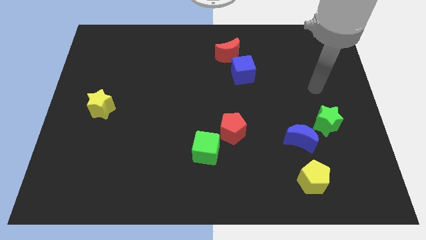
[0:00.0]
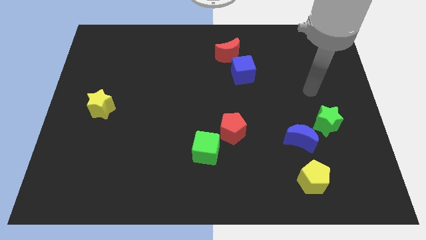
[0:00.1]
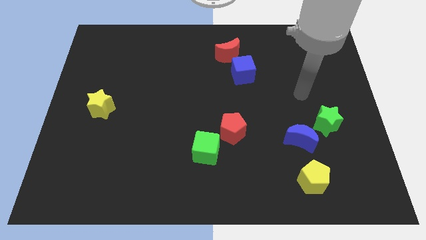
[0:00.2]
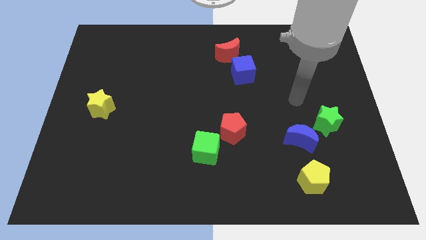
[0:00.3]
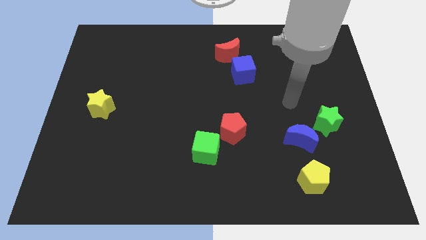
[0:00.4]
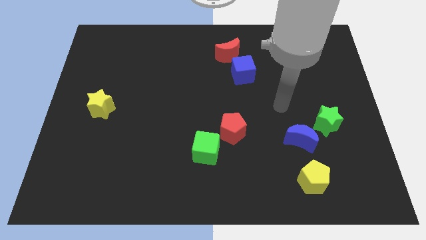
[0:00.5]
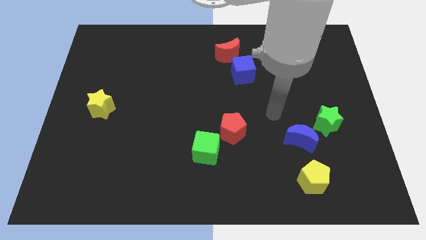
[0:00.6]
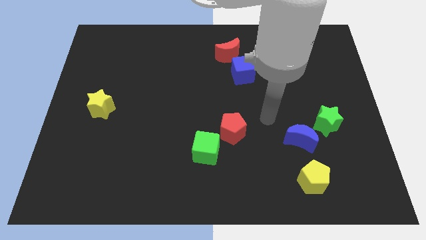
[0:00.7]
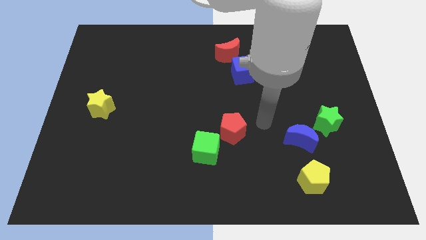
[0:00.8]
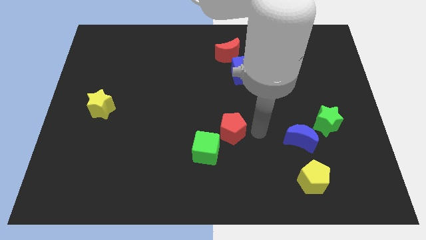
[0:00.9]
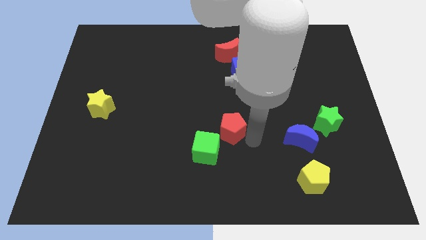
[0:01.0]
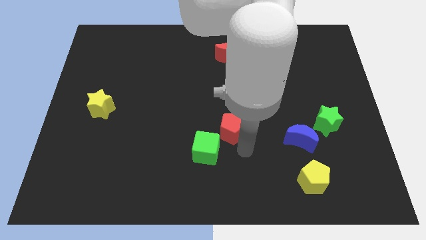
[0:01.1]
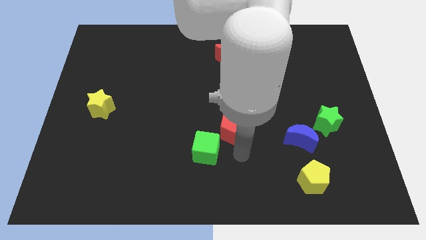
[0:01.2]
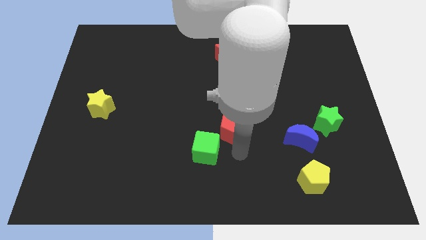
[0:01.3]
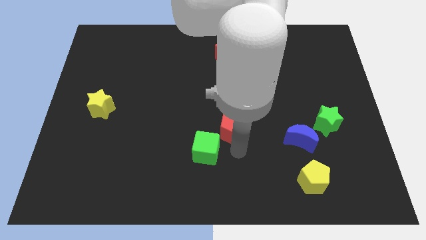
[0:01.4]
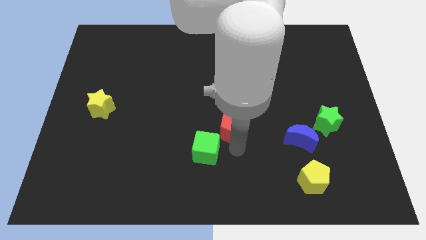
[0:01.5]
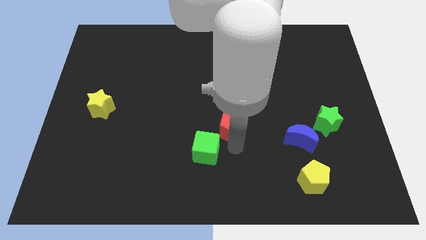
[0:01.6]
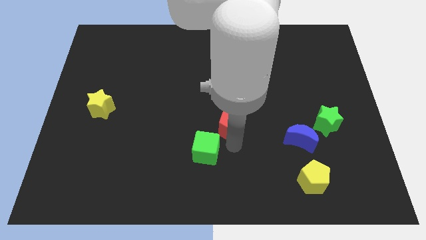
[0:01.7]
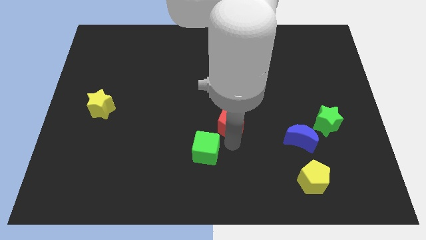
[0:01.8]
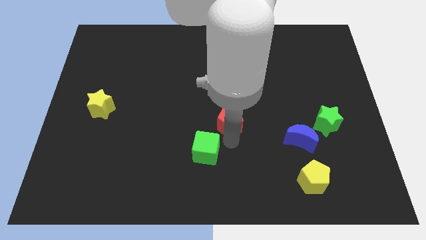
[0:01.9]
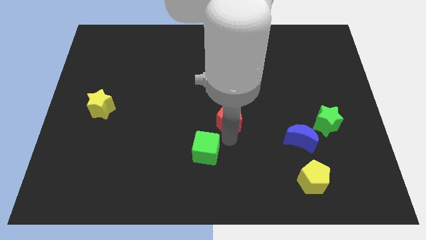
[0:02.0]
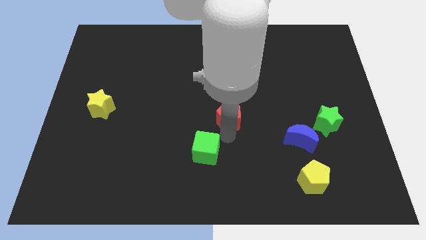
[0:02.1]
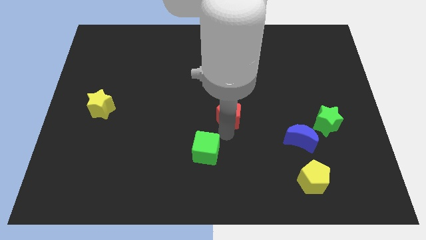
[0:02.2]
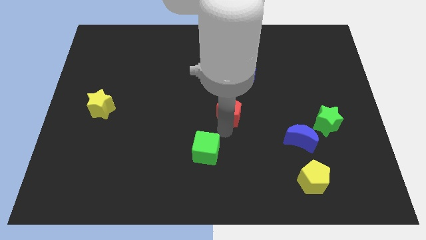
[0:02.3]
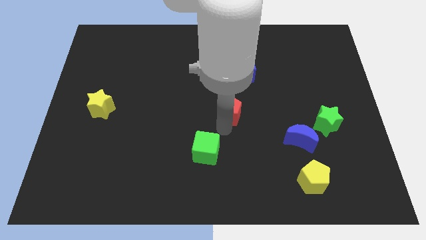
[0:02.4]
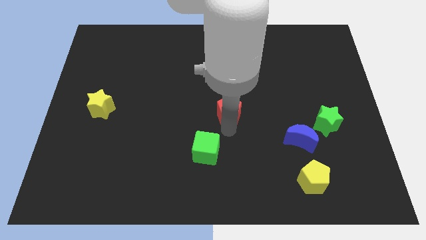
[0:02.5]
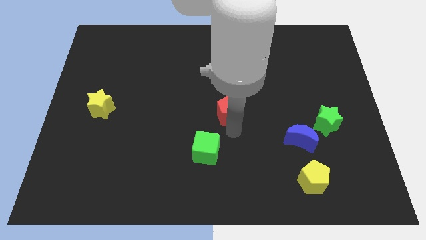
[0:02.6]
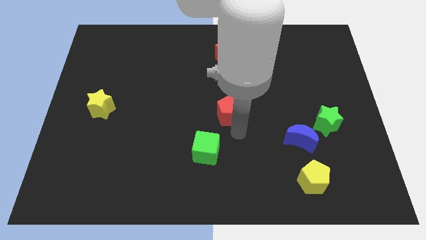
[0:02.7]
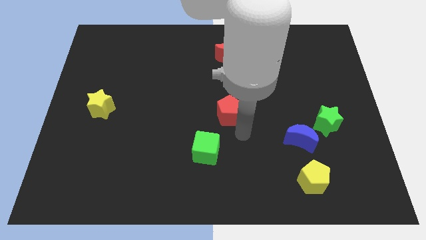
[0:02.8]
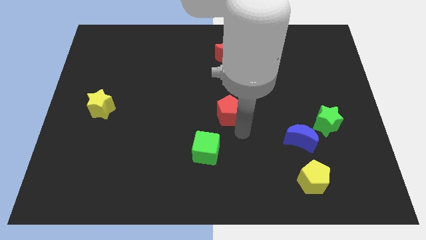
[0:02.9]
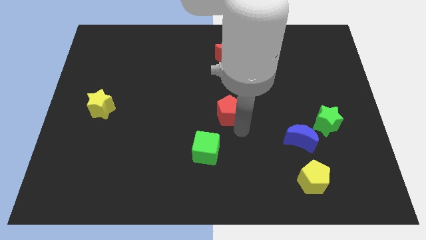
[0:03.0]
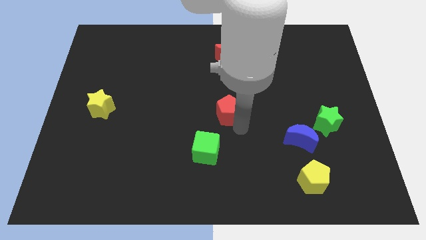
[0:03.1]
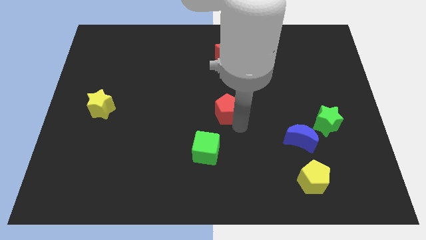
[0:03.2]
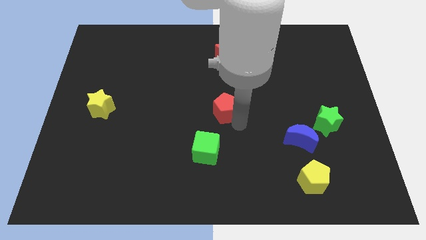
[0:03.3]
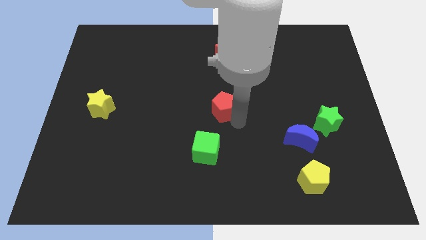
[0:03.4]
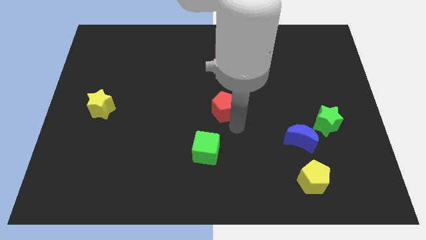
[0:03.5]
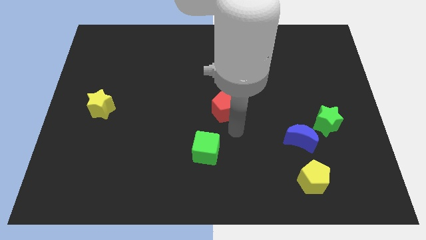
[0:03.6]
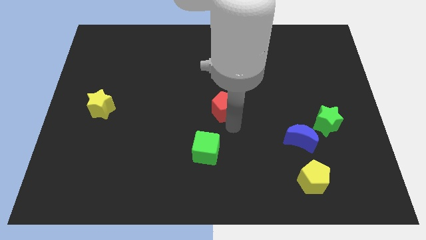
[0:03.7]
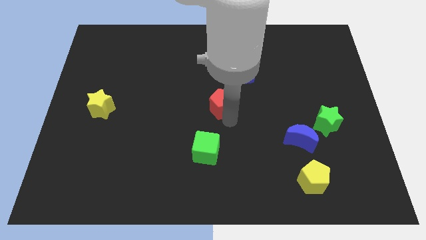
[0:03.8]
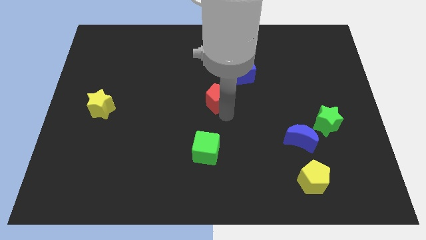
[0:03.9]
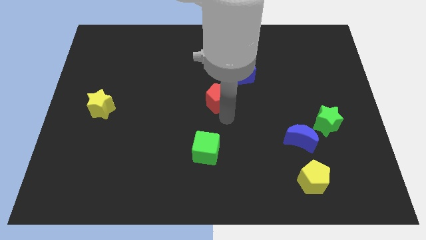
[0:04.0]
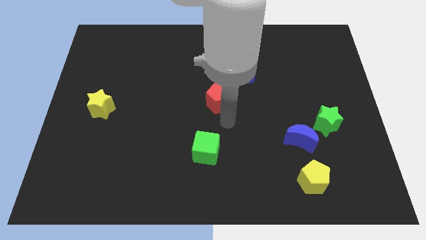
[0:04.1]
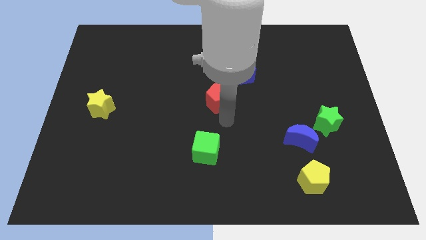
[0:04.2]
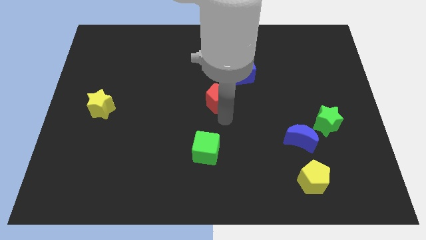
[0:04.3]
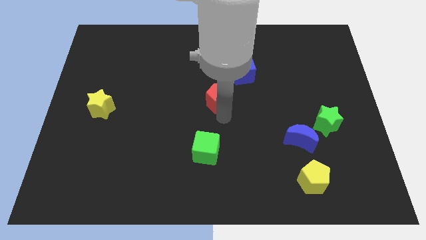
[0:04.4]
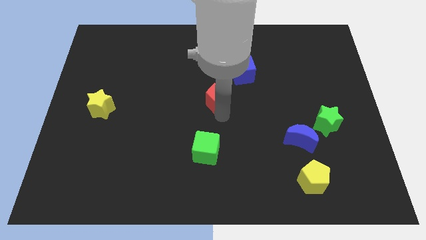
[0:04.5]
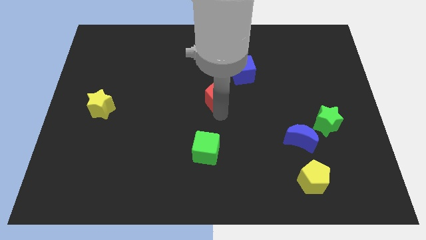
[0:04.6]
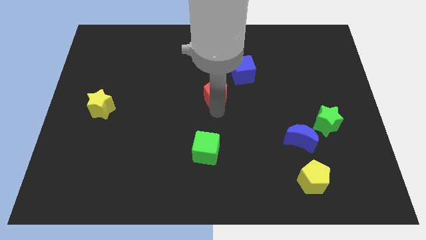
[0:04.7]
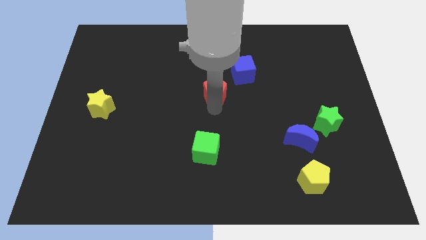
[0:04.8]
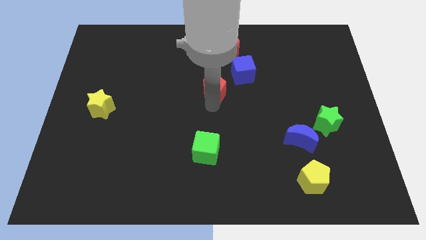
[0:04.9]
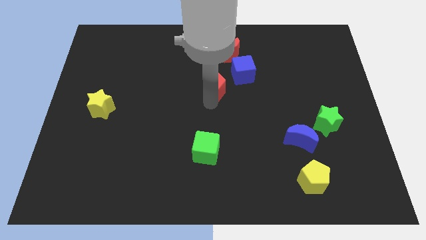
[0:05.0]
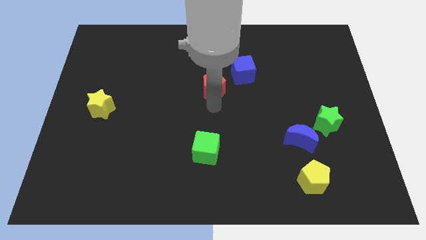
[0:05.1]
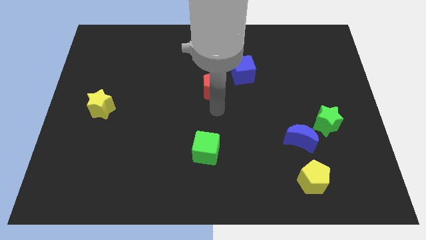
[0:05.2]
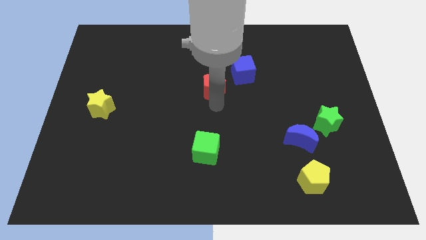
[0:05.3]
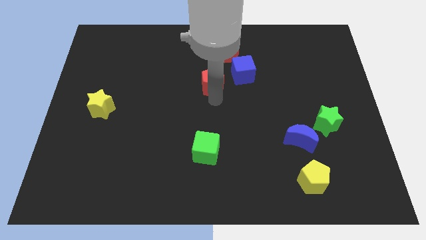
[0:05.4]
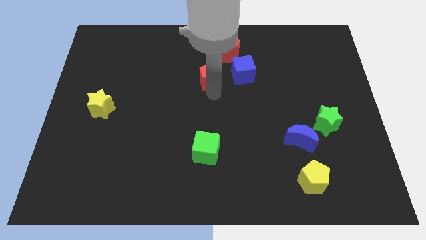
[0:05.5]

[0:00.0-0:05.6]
put the red pentagon to the bottom left side of the red moon

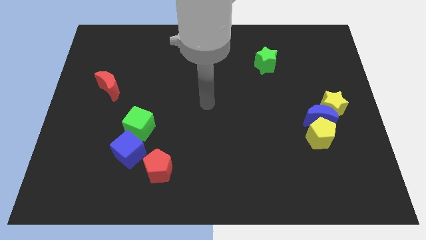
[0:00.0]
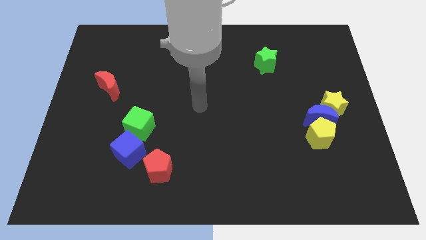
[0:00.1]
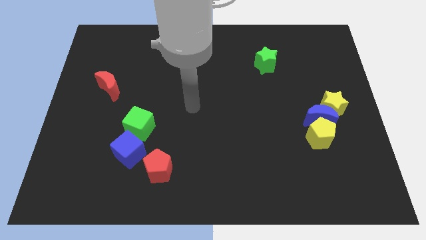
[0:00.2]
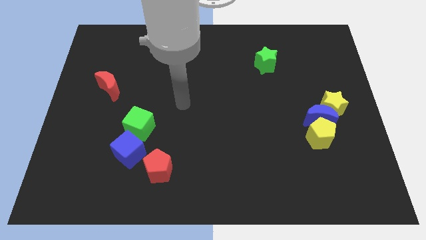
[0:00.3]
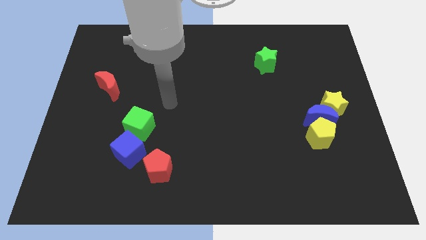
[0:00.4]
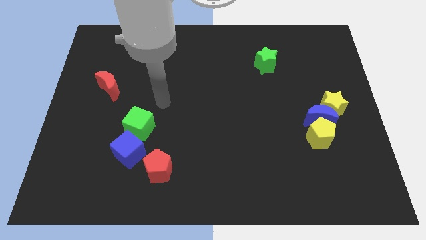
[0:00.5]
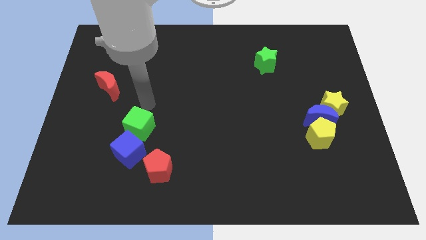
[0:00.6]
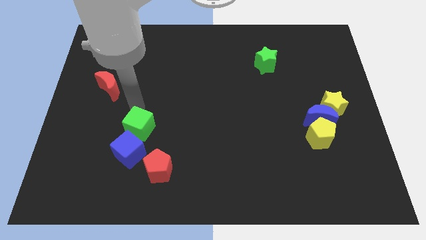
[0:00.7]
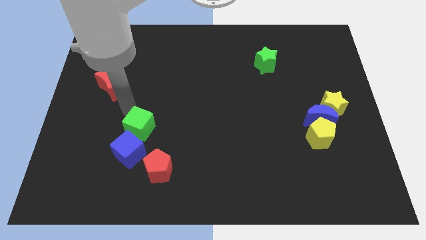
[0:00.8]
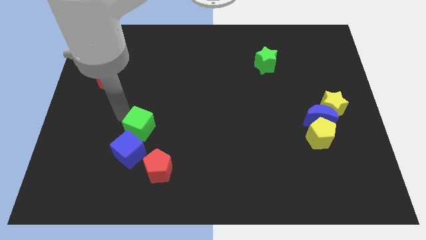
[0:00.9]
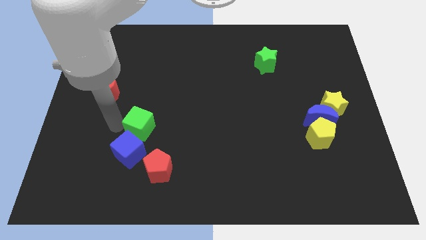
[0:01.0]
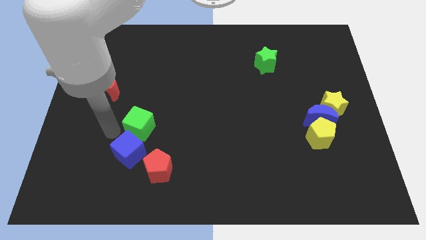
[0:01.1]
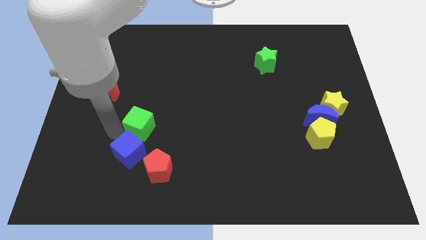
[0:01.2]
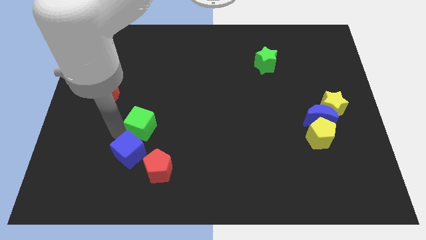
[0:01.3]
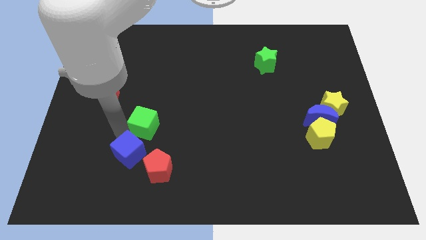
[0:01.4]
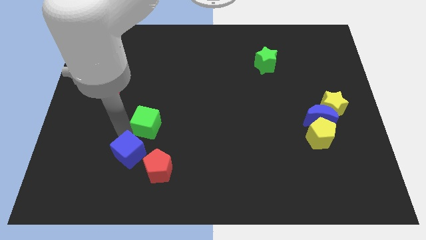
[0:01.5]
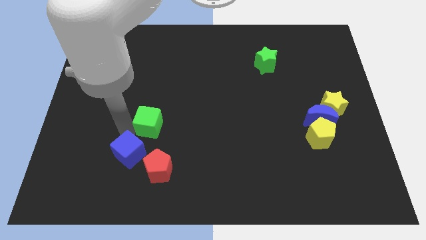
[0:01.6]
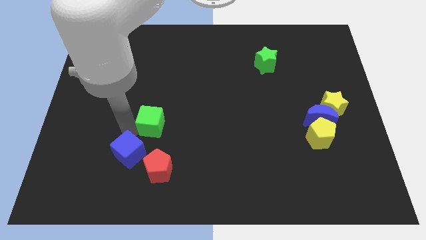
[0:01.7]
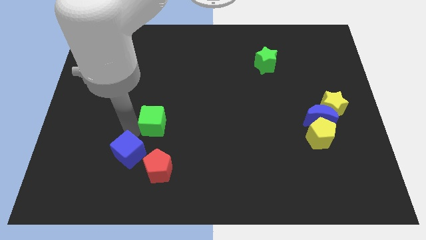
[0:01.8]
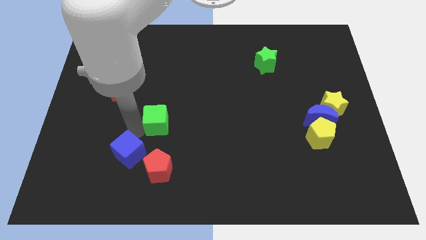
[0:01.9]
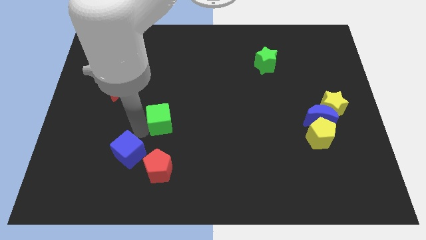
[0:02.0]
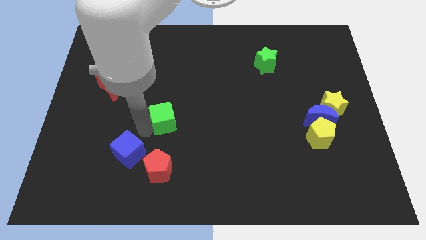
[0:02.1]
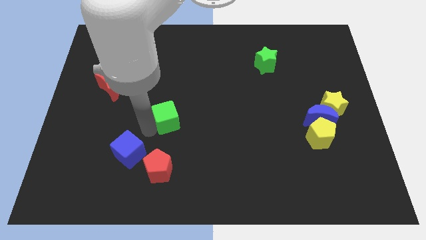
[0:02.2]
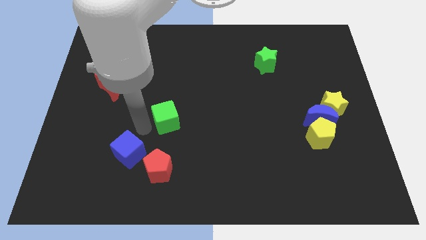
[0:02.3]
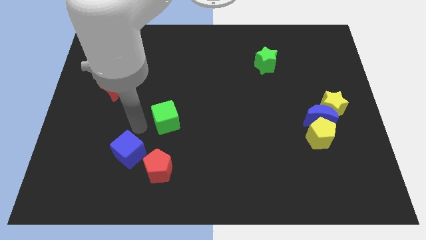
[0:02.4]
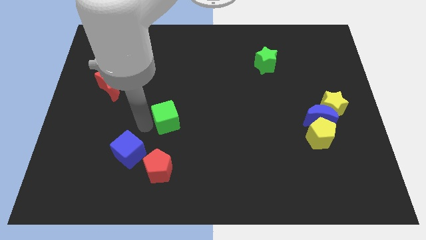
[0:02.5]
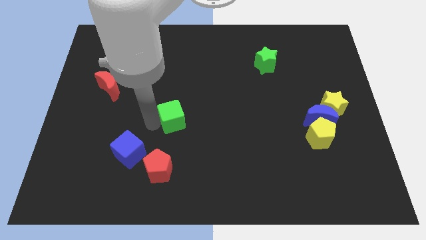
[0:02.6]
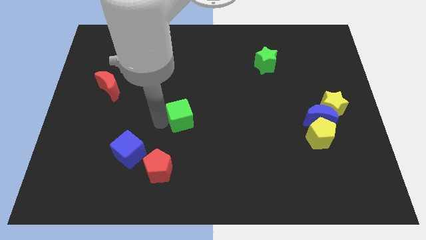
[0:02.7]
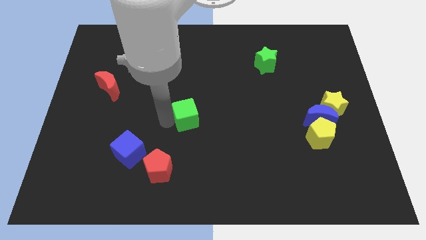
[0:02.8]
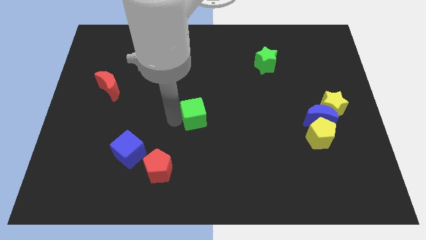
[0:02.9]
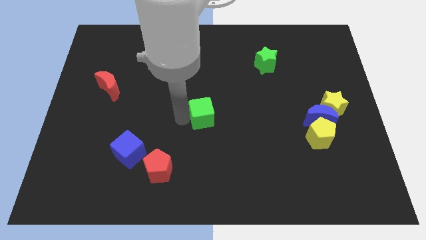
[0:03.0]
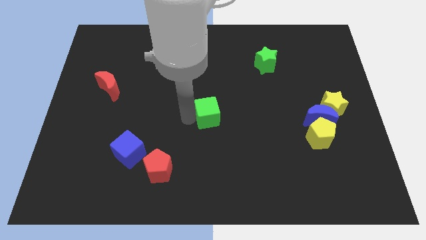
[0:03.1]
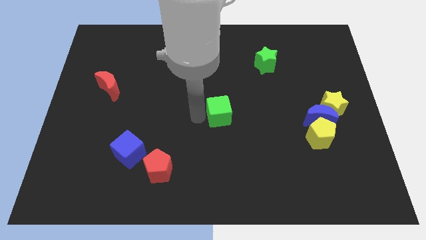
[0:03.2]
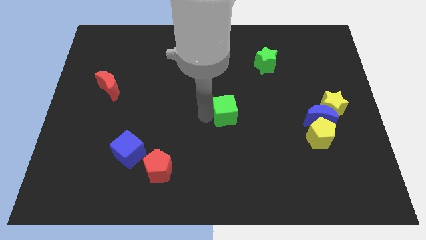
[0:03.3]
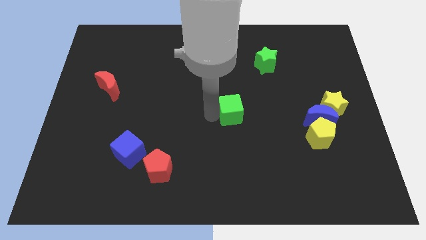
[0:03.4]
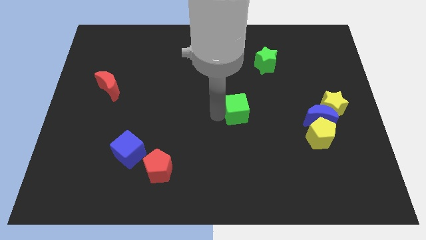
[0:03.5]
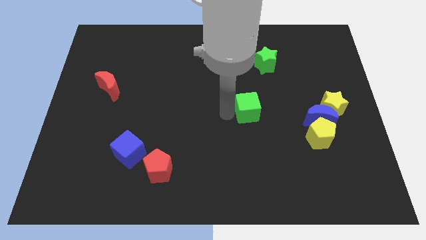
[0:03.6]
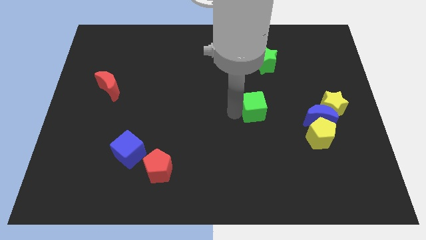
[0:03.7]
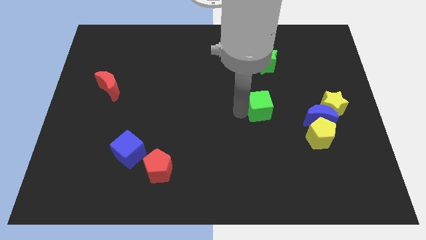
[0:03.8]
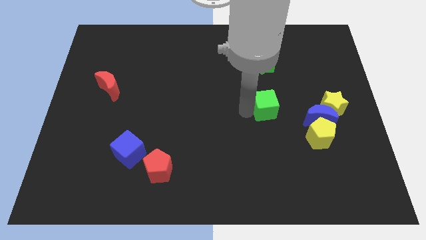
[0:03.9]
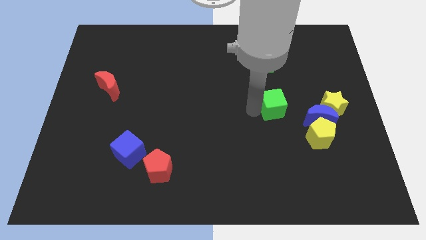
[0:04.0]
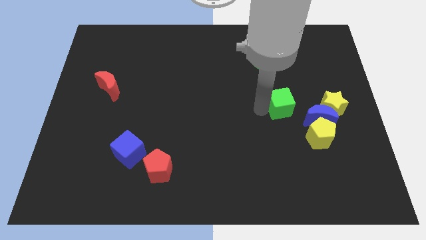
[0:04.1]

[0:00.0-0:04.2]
push the green cube to the top left side of the blue moon
